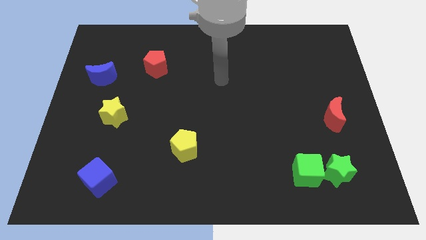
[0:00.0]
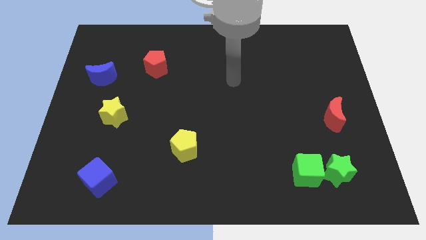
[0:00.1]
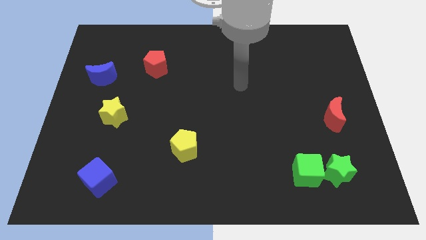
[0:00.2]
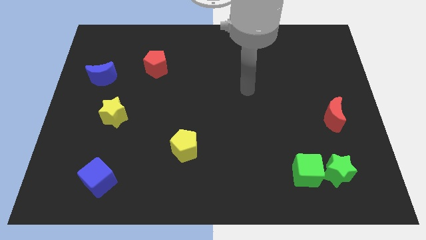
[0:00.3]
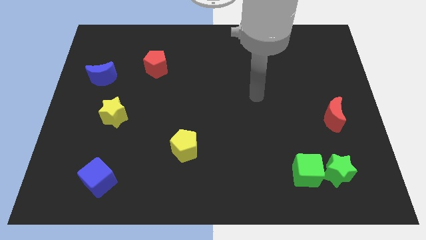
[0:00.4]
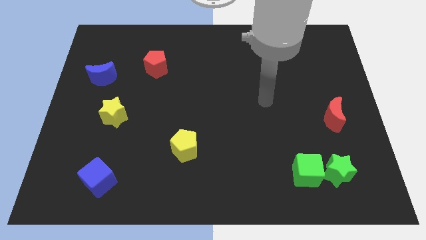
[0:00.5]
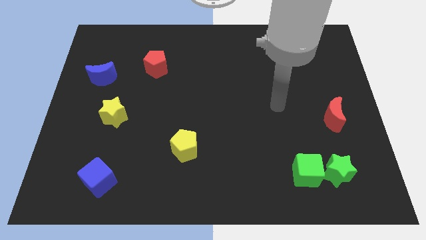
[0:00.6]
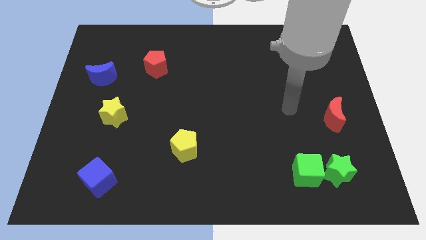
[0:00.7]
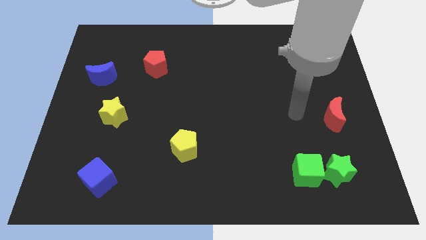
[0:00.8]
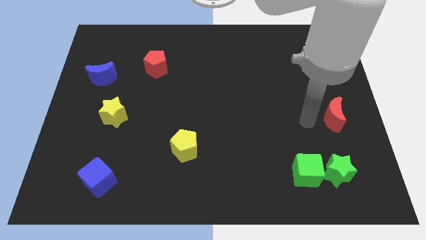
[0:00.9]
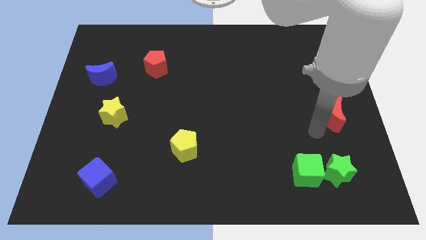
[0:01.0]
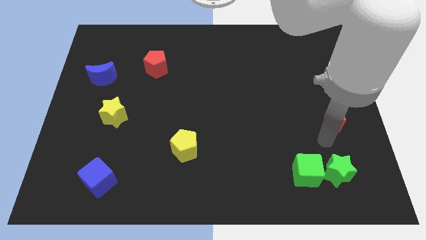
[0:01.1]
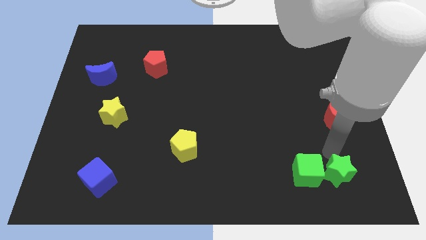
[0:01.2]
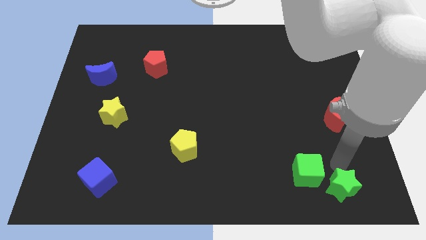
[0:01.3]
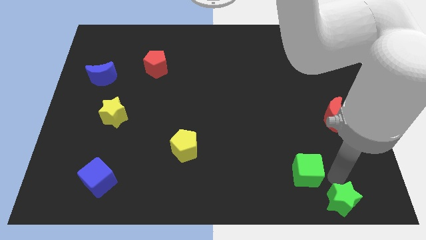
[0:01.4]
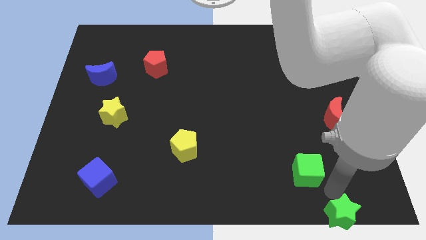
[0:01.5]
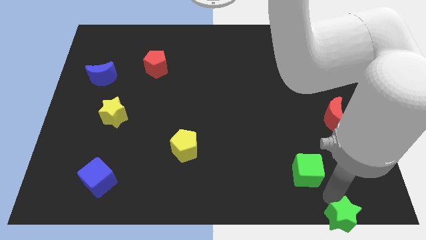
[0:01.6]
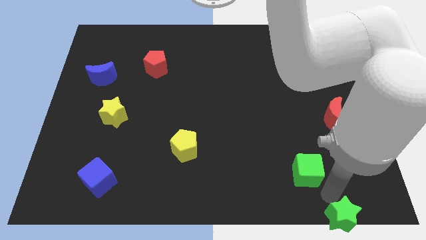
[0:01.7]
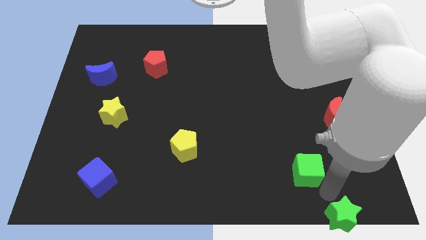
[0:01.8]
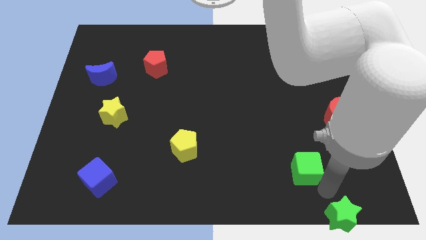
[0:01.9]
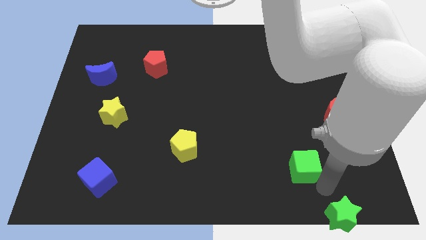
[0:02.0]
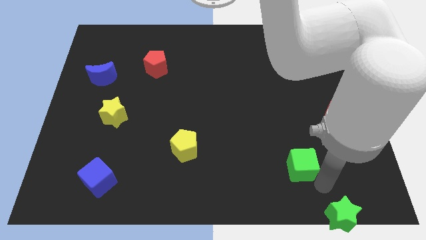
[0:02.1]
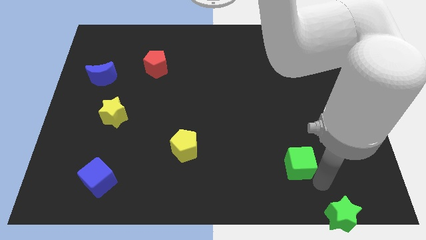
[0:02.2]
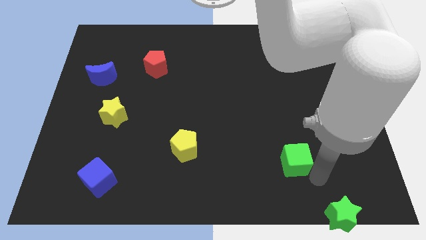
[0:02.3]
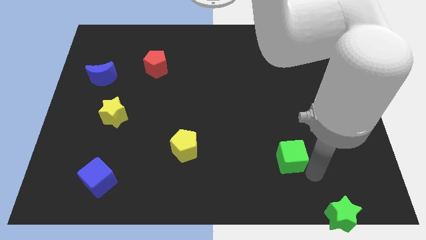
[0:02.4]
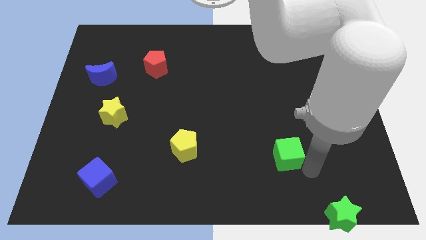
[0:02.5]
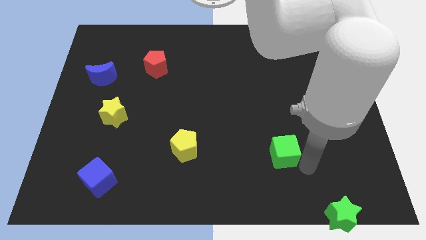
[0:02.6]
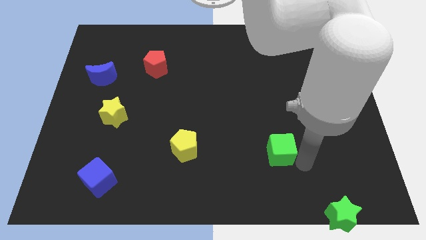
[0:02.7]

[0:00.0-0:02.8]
move the green cube a little bit diagonally upwards and to the left

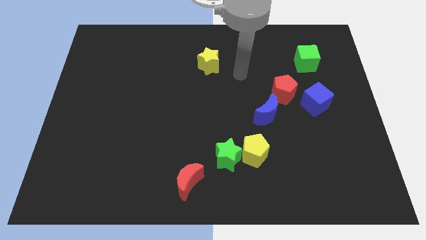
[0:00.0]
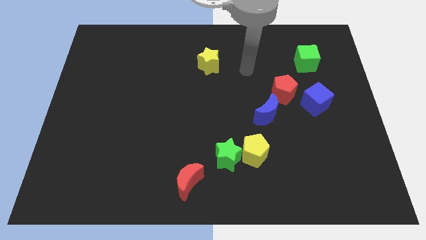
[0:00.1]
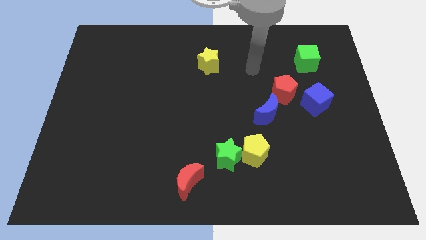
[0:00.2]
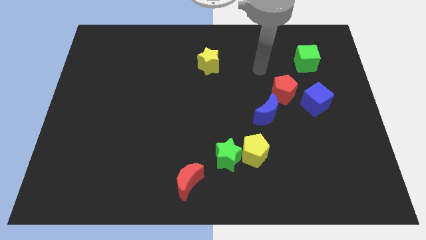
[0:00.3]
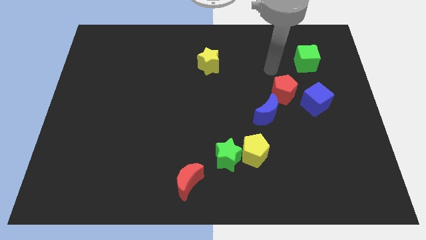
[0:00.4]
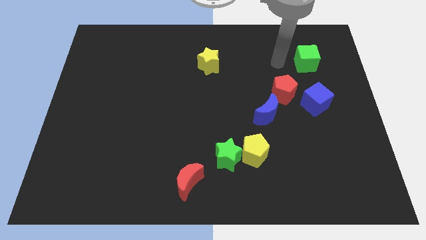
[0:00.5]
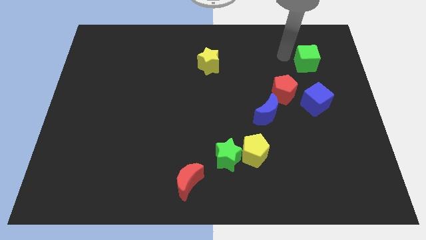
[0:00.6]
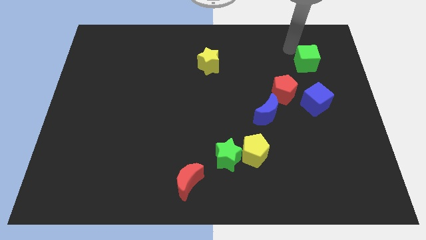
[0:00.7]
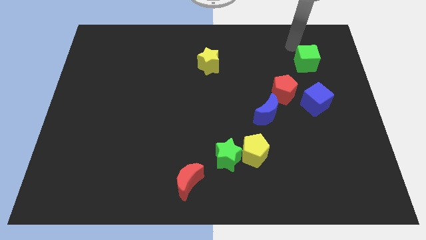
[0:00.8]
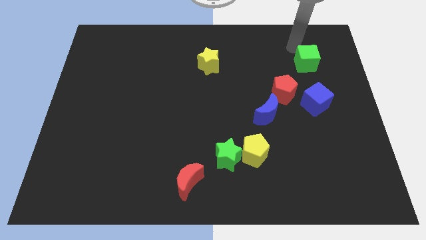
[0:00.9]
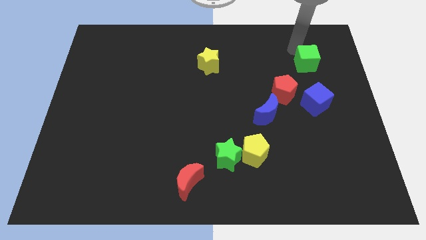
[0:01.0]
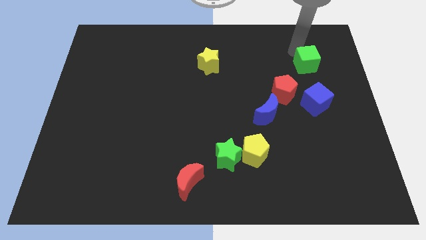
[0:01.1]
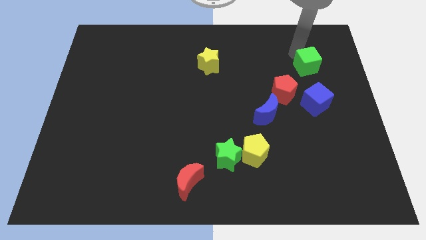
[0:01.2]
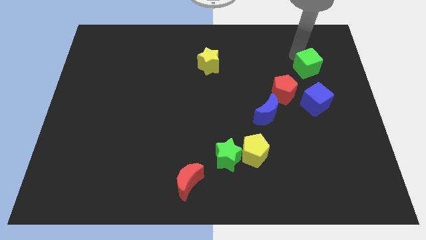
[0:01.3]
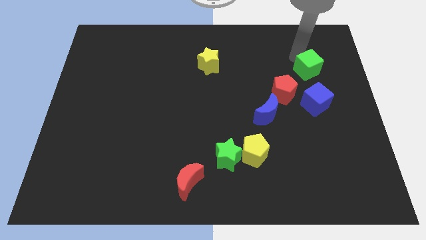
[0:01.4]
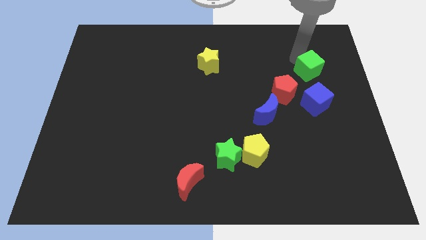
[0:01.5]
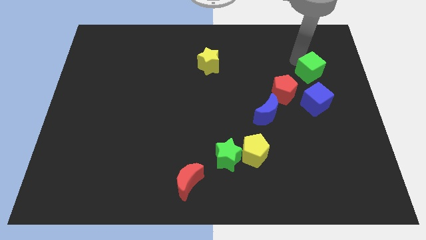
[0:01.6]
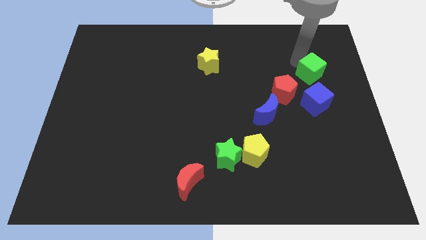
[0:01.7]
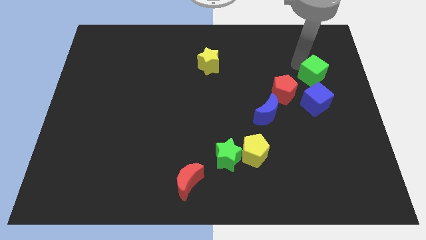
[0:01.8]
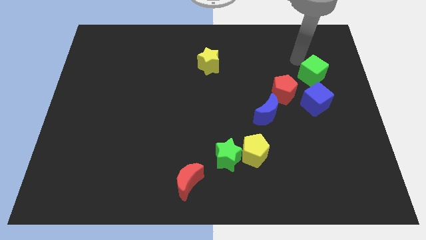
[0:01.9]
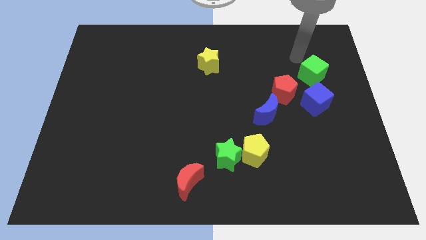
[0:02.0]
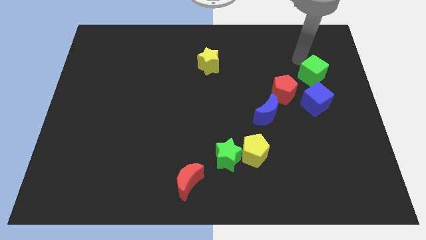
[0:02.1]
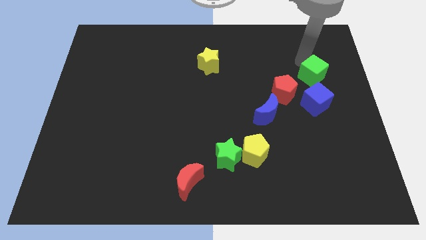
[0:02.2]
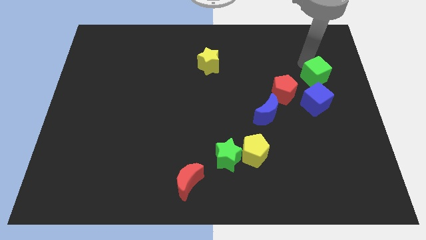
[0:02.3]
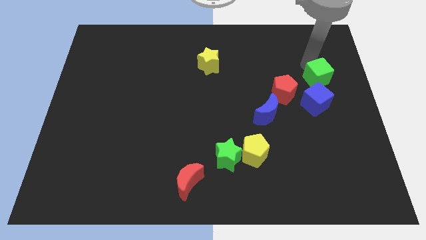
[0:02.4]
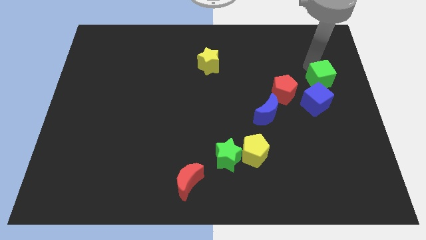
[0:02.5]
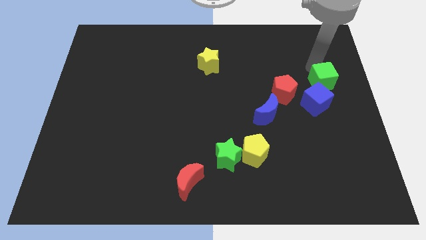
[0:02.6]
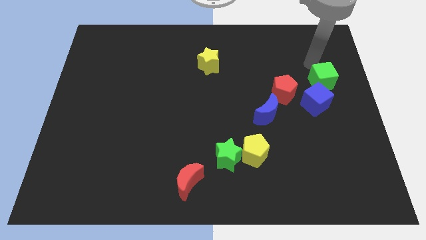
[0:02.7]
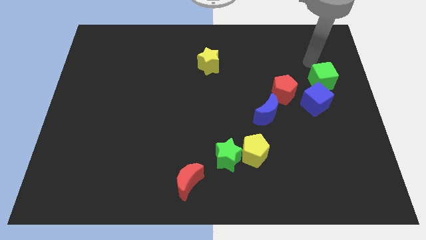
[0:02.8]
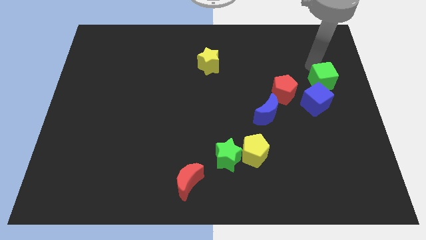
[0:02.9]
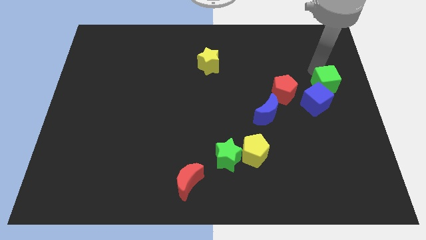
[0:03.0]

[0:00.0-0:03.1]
move the green cube slightly downwards

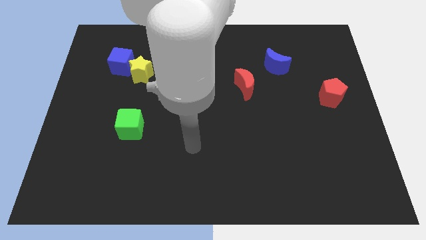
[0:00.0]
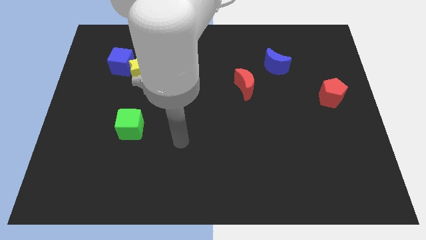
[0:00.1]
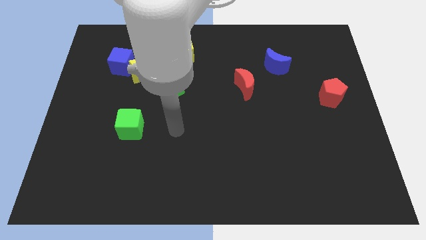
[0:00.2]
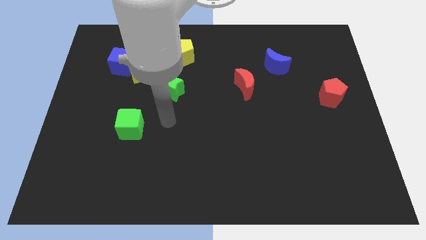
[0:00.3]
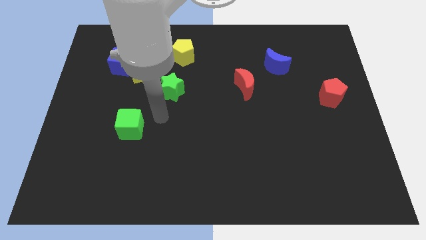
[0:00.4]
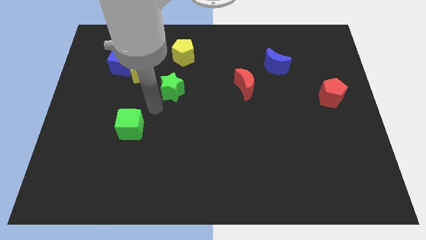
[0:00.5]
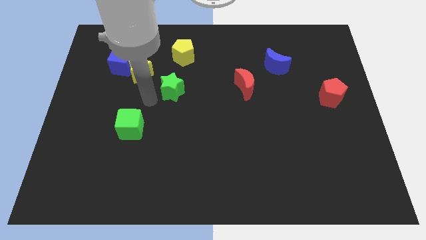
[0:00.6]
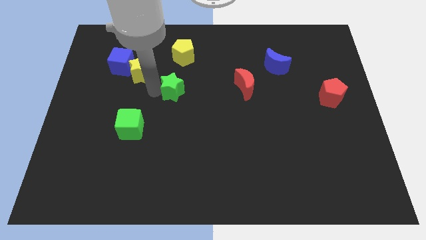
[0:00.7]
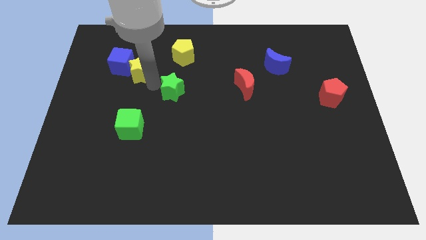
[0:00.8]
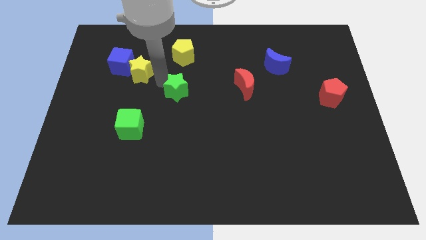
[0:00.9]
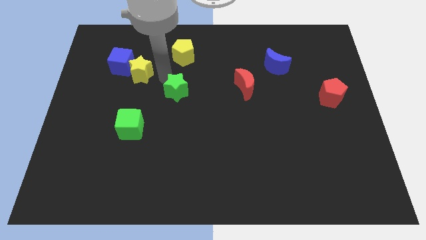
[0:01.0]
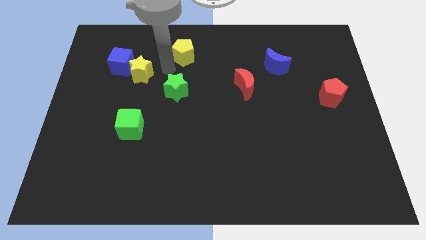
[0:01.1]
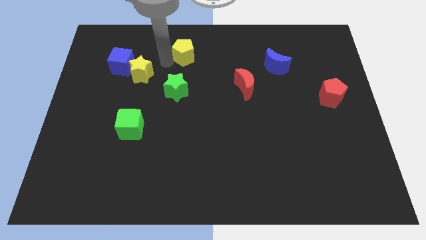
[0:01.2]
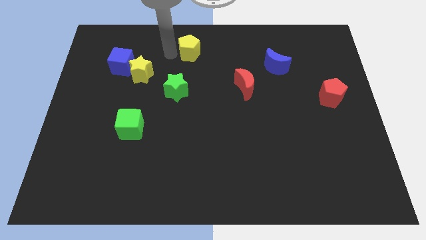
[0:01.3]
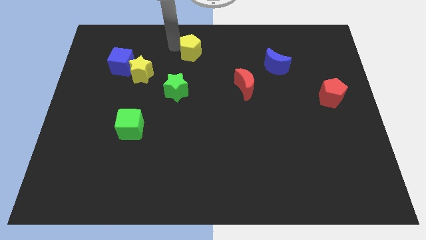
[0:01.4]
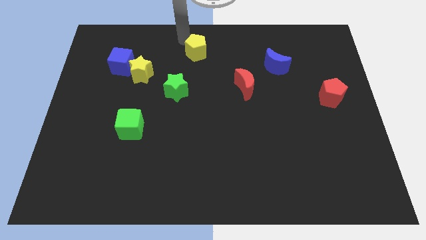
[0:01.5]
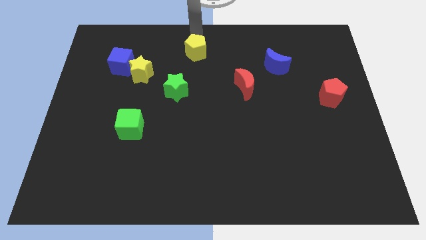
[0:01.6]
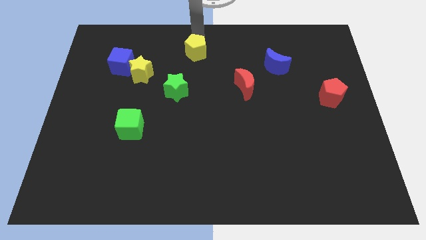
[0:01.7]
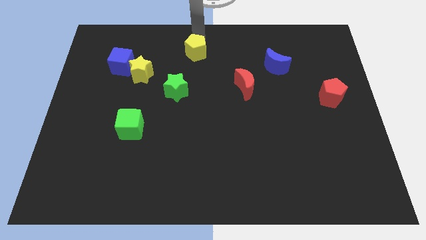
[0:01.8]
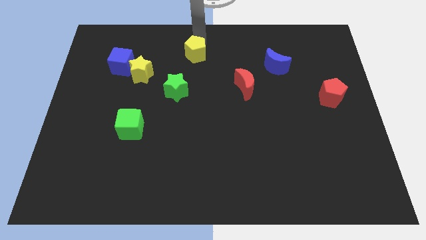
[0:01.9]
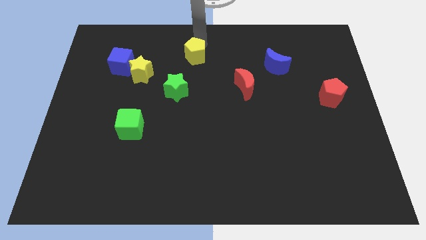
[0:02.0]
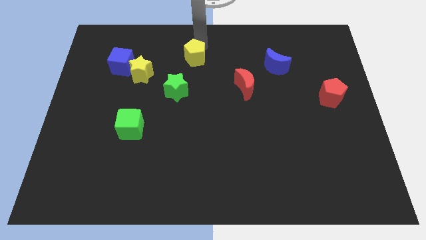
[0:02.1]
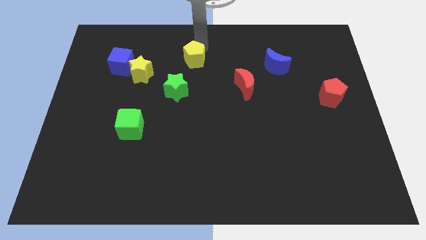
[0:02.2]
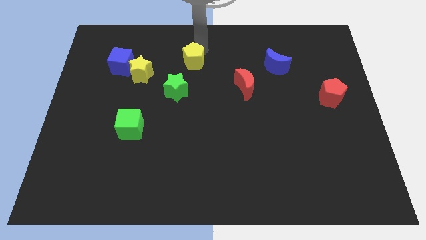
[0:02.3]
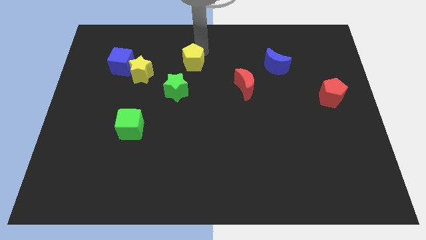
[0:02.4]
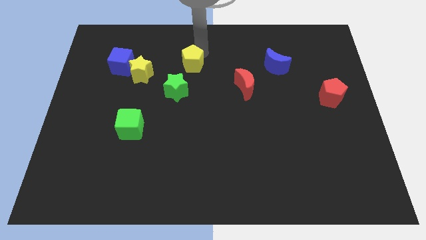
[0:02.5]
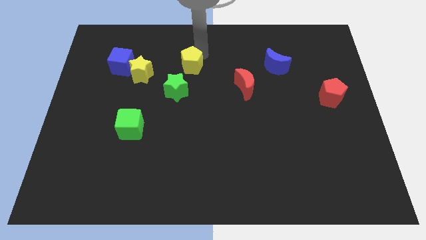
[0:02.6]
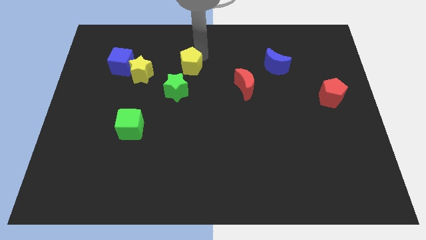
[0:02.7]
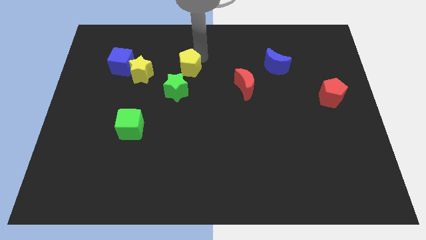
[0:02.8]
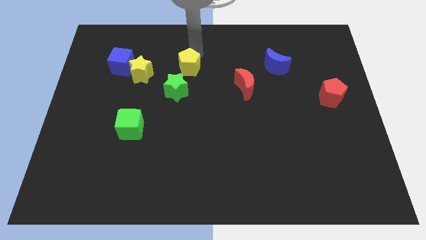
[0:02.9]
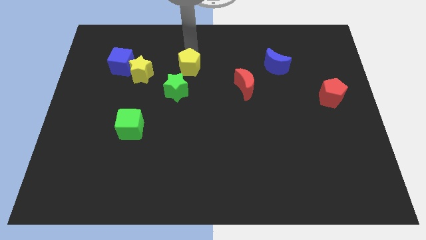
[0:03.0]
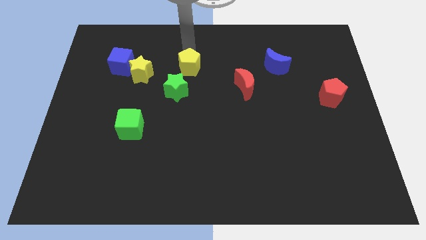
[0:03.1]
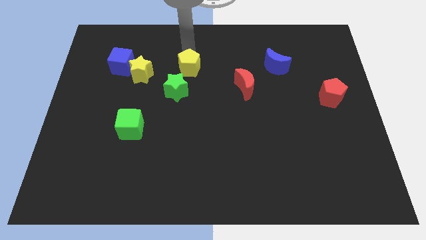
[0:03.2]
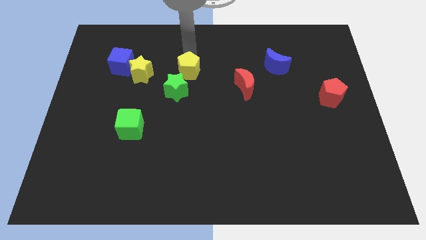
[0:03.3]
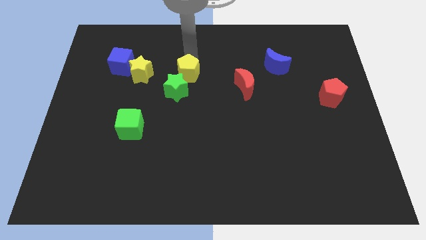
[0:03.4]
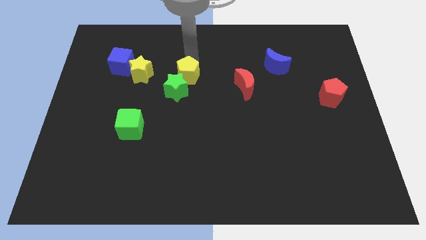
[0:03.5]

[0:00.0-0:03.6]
move the yellow pentagon down a little
